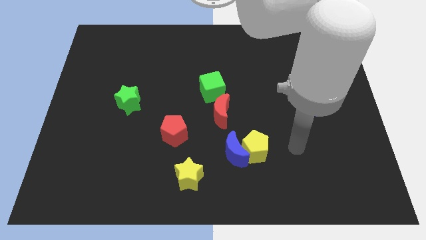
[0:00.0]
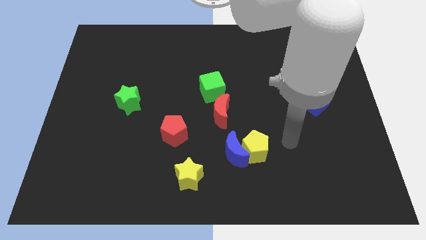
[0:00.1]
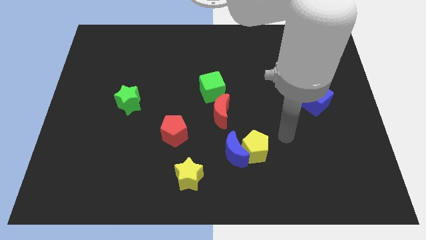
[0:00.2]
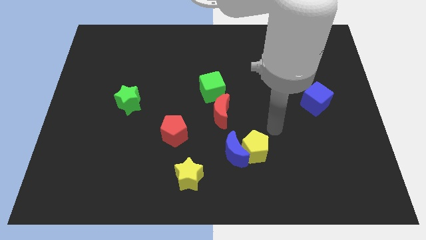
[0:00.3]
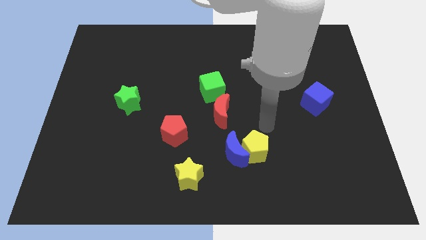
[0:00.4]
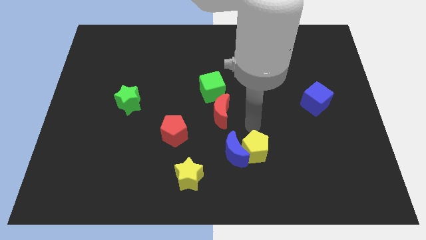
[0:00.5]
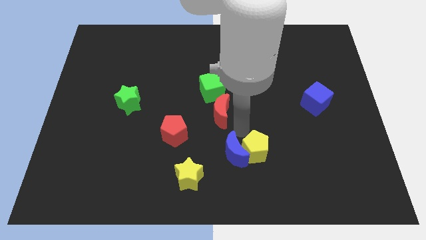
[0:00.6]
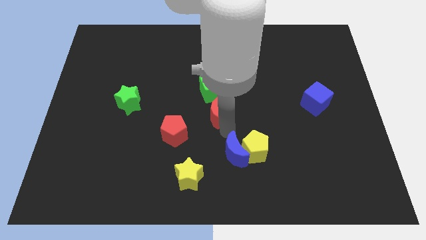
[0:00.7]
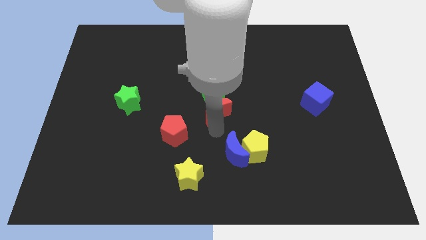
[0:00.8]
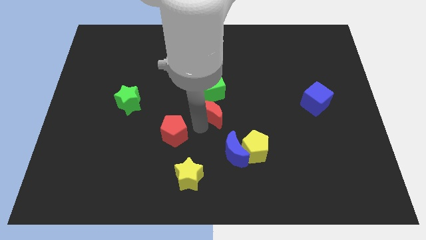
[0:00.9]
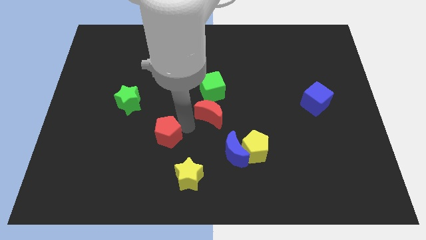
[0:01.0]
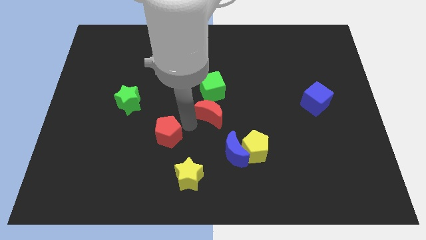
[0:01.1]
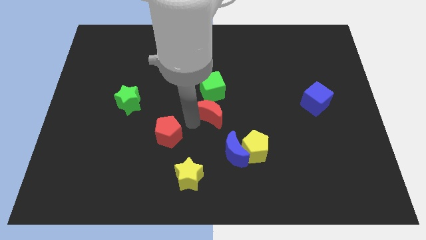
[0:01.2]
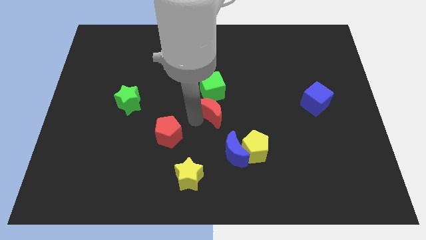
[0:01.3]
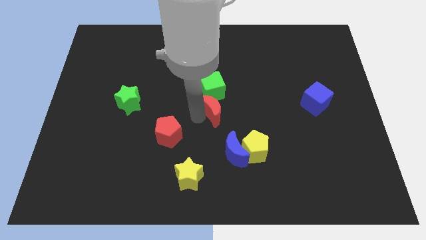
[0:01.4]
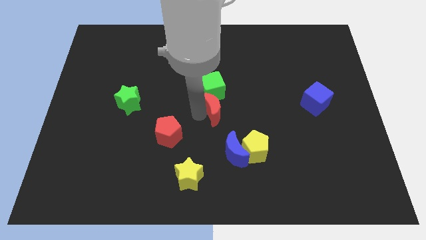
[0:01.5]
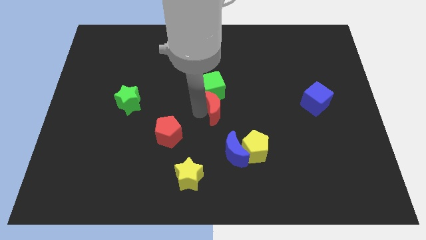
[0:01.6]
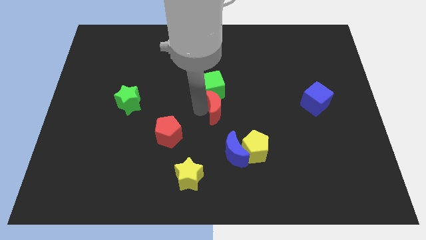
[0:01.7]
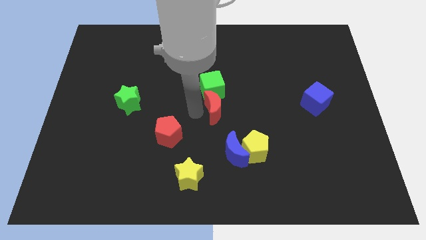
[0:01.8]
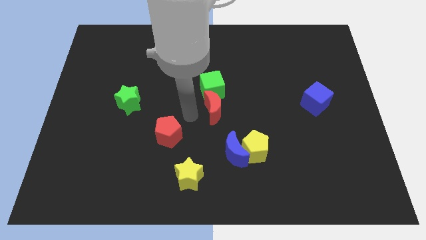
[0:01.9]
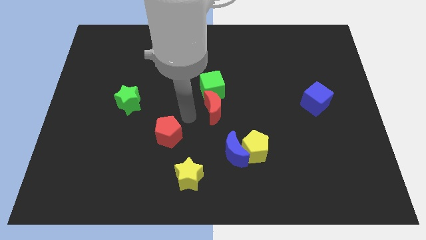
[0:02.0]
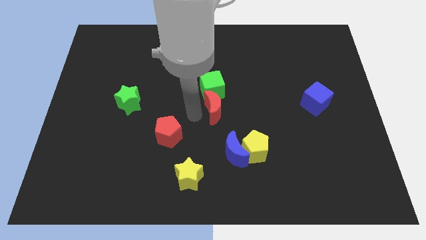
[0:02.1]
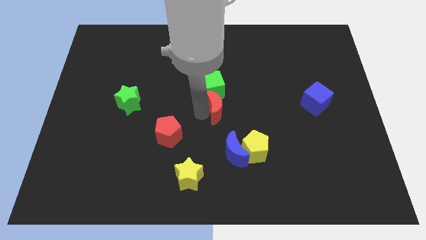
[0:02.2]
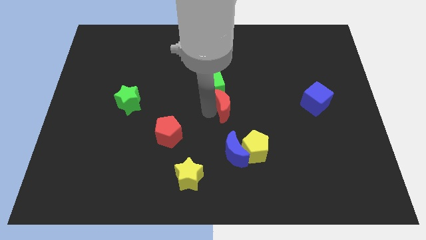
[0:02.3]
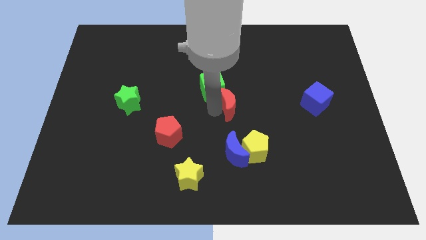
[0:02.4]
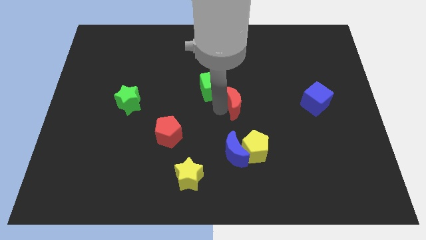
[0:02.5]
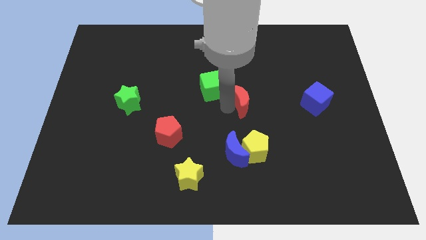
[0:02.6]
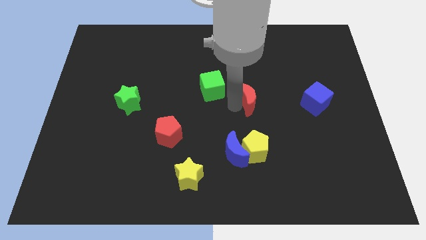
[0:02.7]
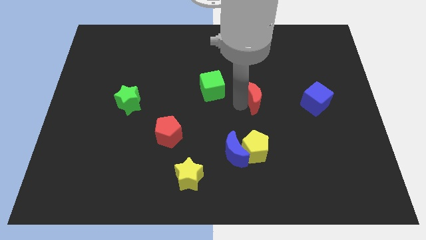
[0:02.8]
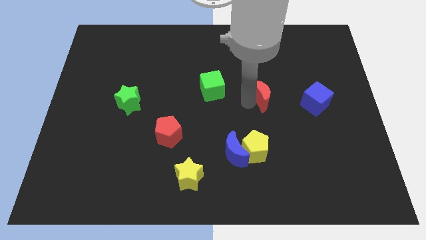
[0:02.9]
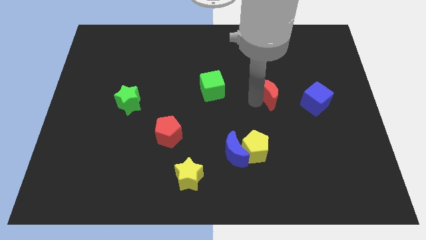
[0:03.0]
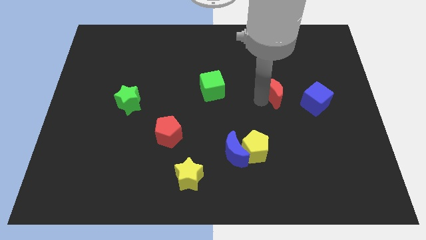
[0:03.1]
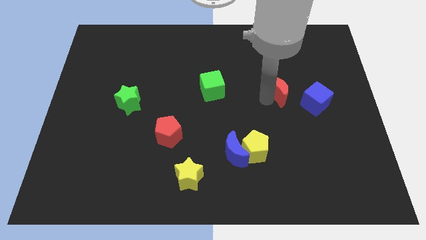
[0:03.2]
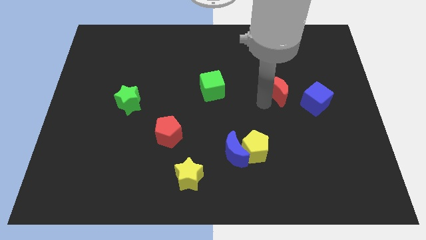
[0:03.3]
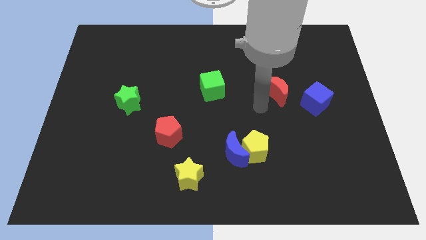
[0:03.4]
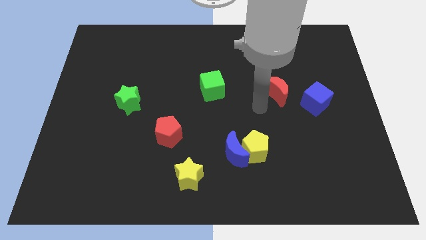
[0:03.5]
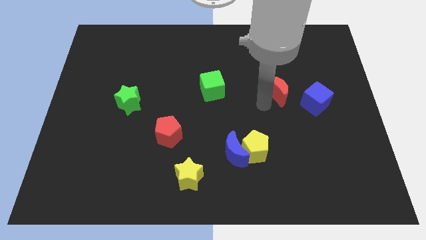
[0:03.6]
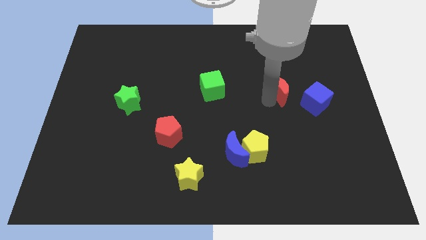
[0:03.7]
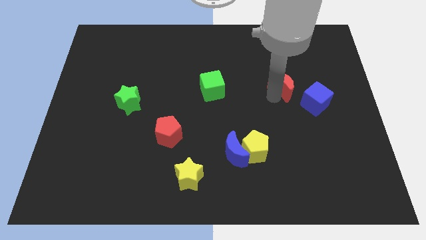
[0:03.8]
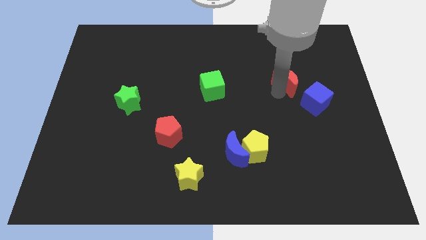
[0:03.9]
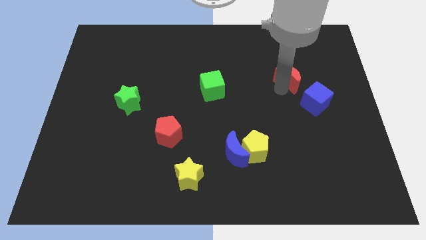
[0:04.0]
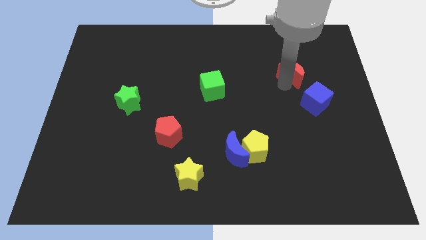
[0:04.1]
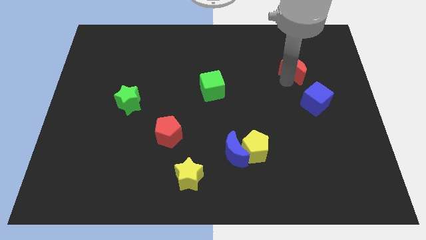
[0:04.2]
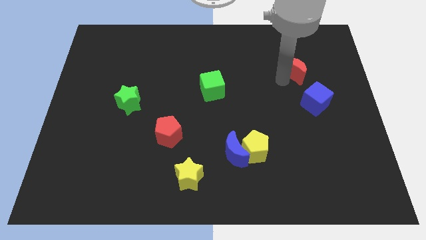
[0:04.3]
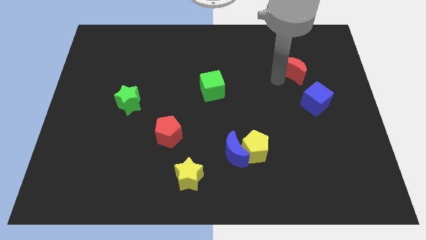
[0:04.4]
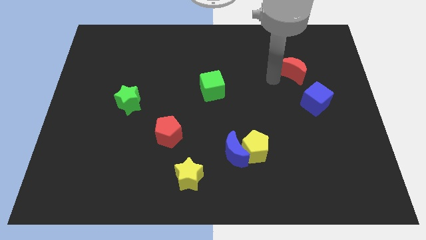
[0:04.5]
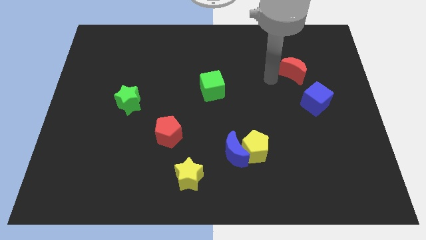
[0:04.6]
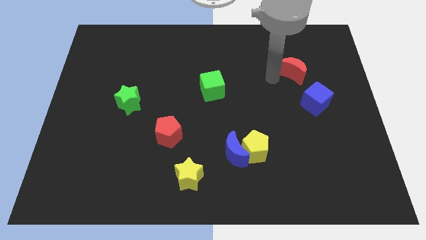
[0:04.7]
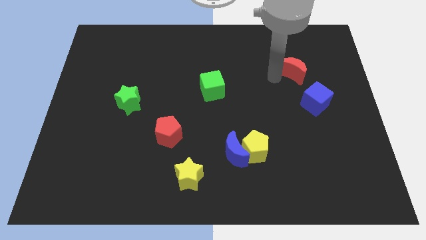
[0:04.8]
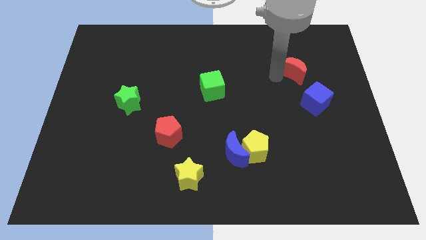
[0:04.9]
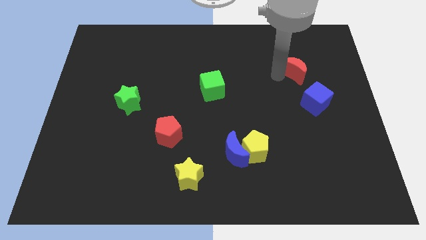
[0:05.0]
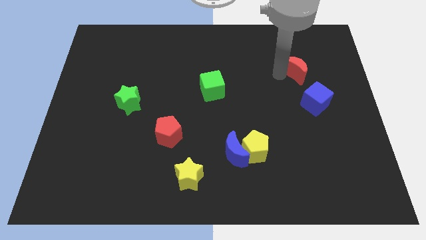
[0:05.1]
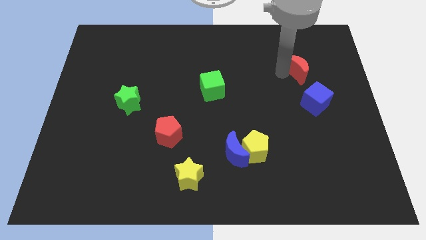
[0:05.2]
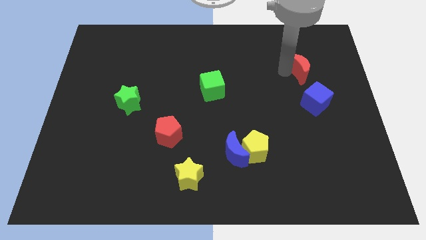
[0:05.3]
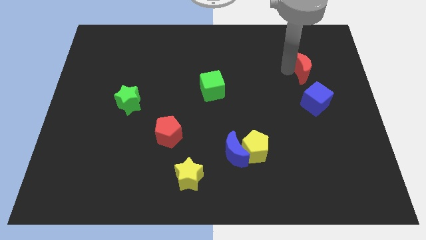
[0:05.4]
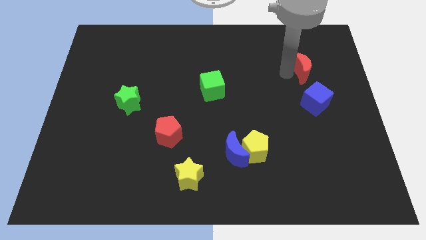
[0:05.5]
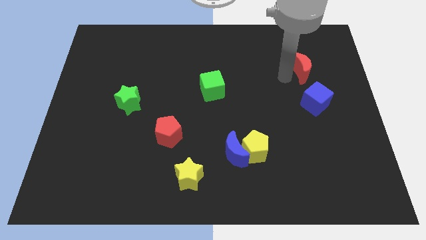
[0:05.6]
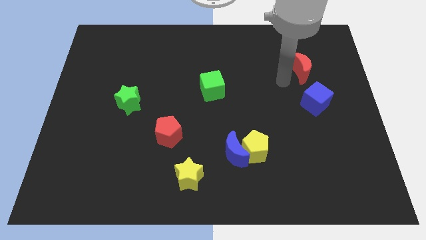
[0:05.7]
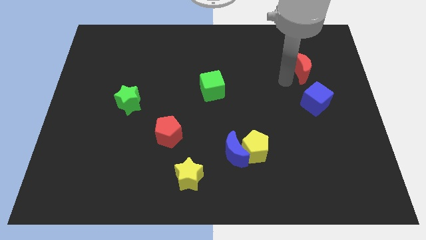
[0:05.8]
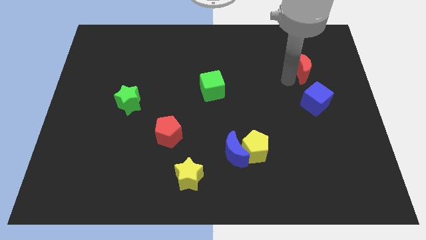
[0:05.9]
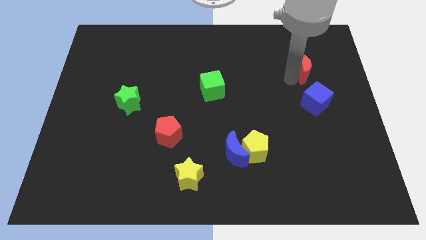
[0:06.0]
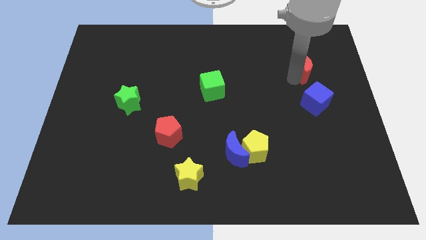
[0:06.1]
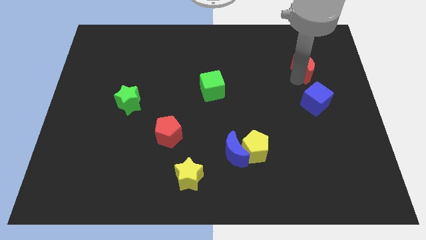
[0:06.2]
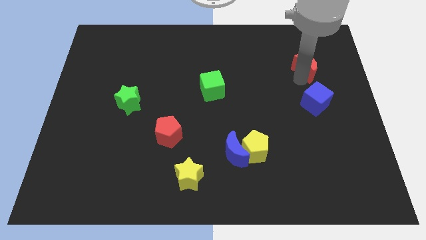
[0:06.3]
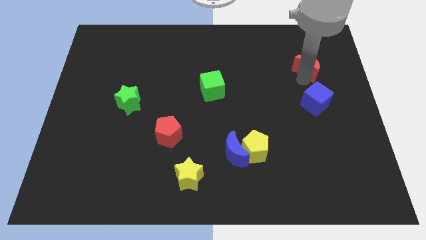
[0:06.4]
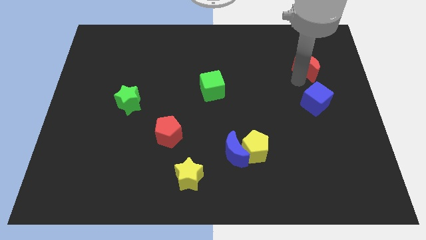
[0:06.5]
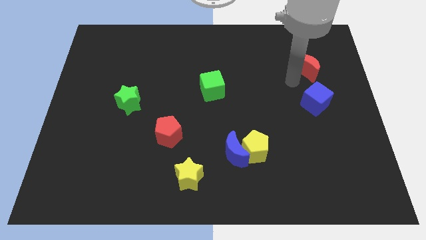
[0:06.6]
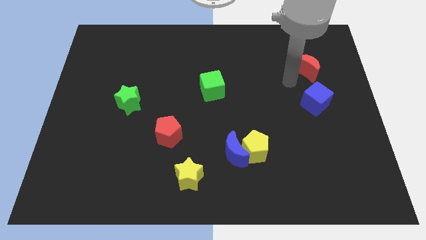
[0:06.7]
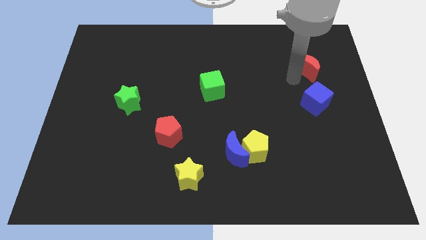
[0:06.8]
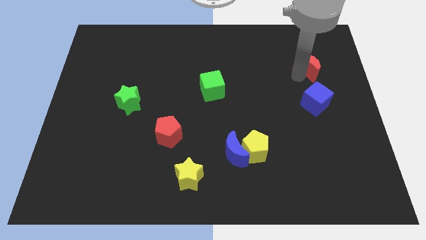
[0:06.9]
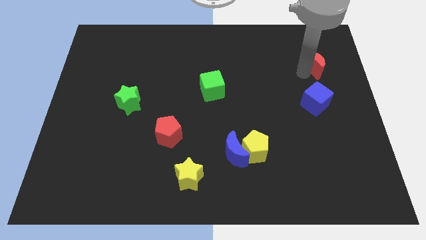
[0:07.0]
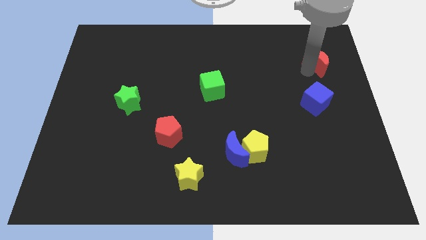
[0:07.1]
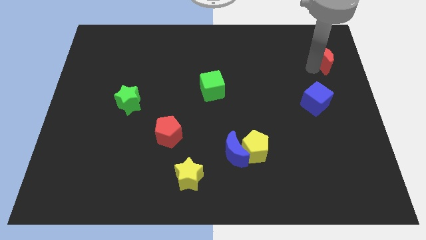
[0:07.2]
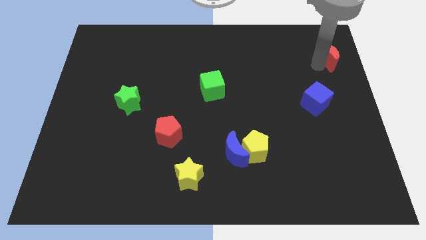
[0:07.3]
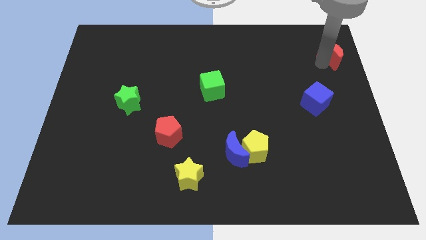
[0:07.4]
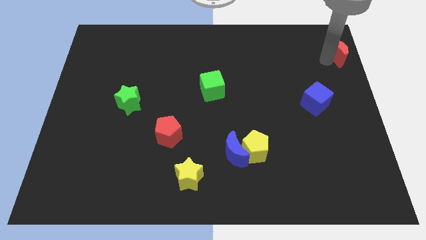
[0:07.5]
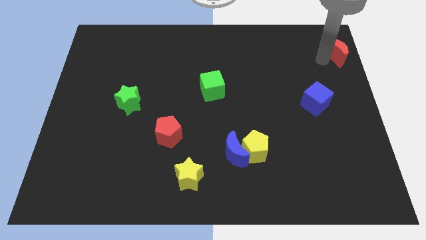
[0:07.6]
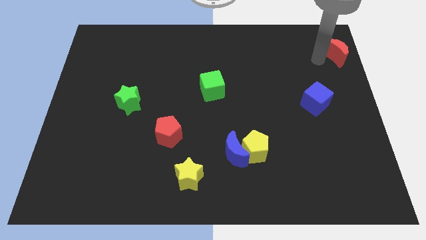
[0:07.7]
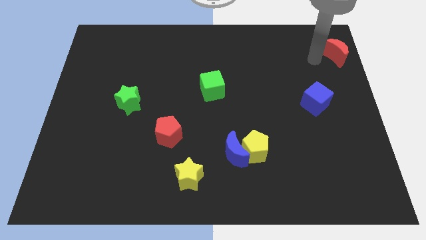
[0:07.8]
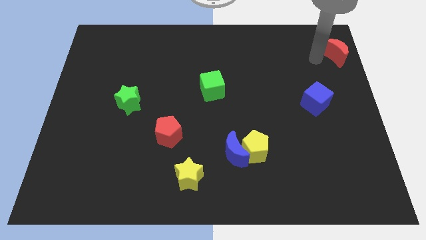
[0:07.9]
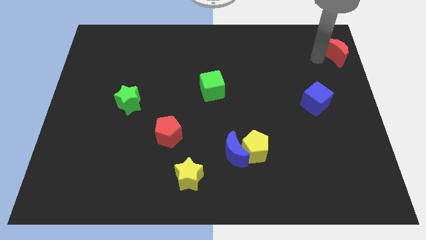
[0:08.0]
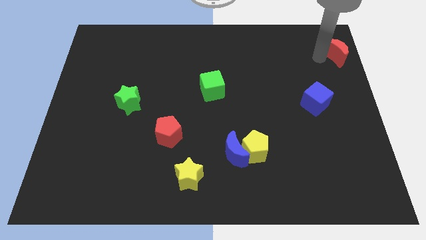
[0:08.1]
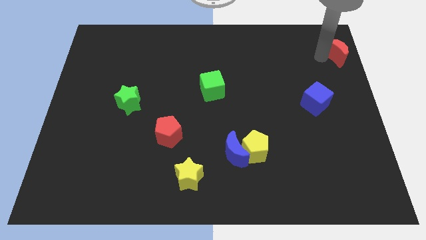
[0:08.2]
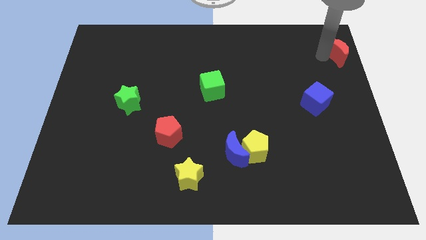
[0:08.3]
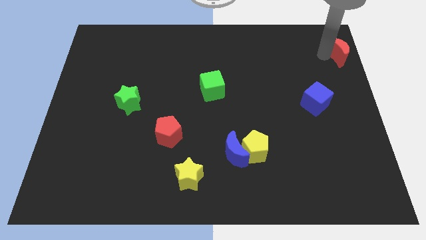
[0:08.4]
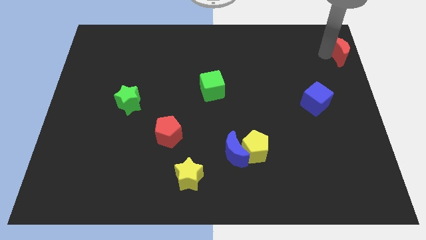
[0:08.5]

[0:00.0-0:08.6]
move the red moon to the top right corner
